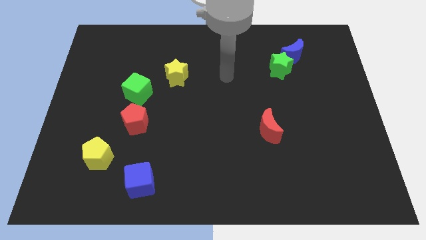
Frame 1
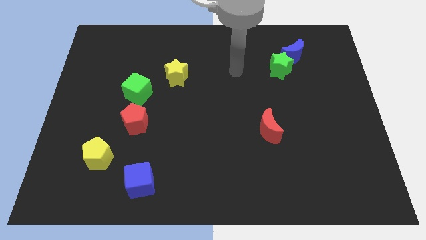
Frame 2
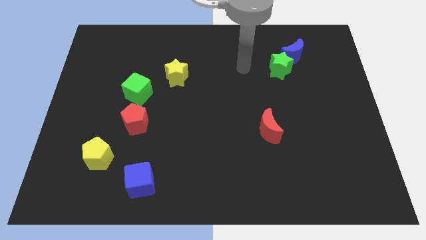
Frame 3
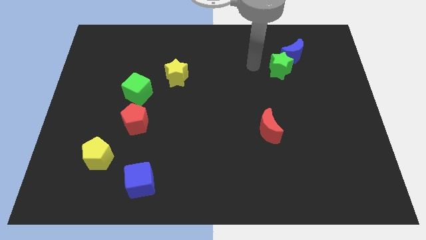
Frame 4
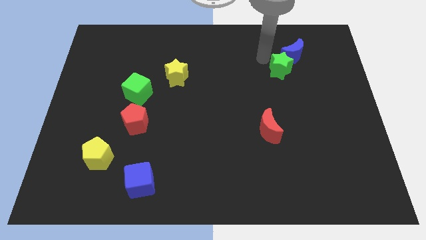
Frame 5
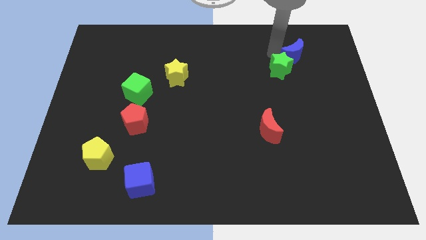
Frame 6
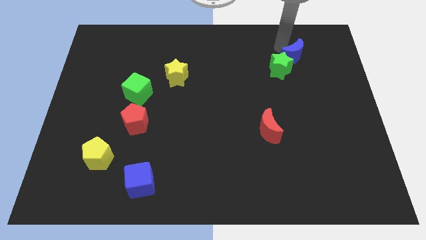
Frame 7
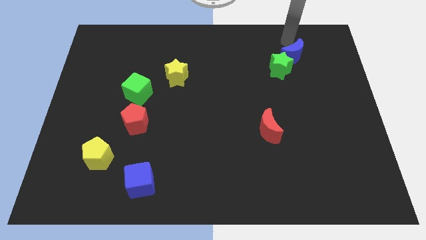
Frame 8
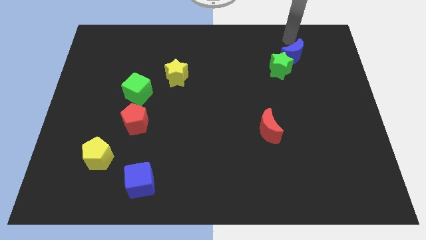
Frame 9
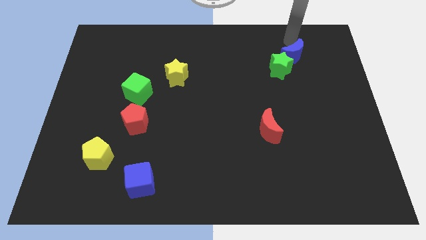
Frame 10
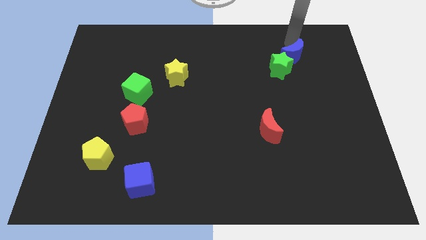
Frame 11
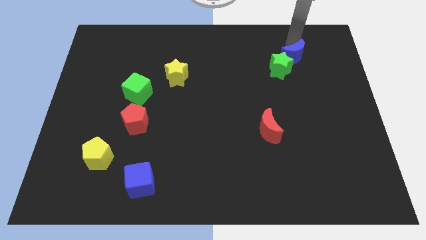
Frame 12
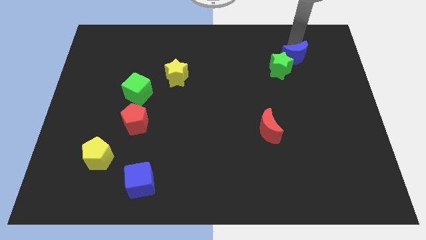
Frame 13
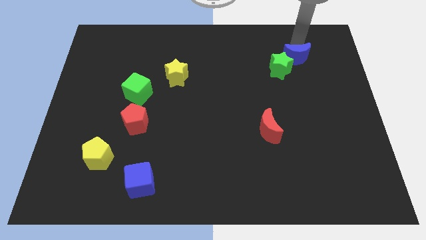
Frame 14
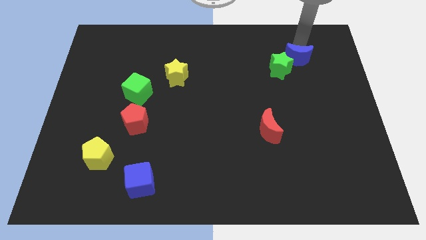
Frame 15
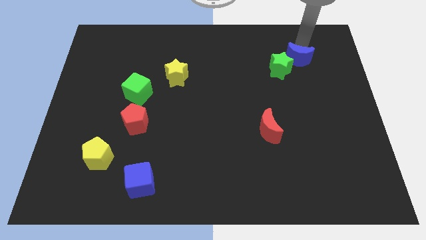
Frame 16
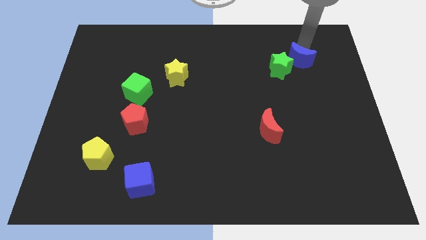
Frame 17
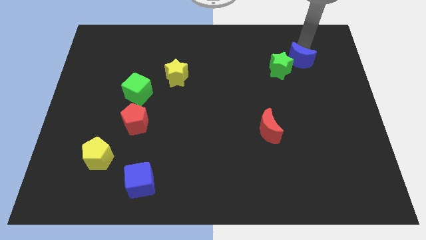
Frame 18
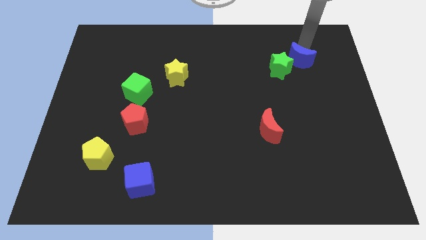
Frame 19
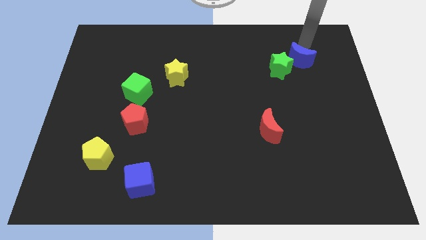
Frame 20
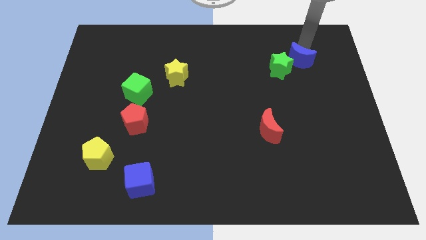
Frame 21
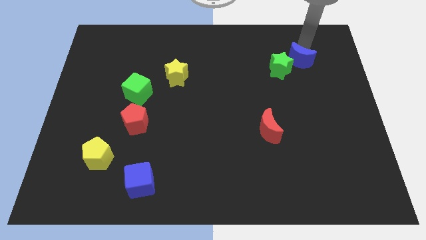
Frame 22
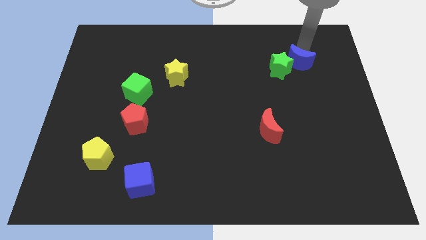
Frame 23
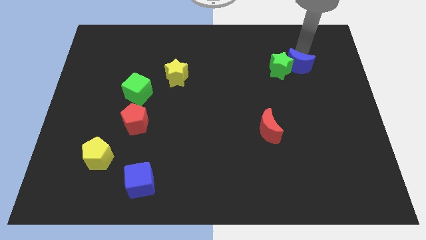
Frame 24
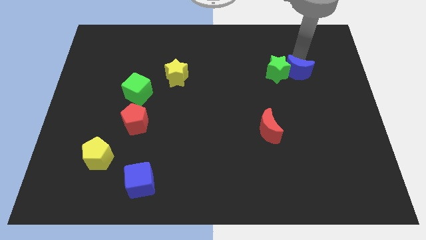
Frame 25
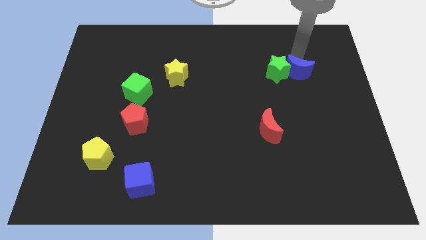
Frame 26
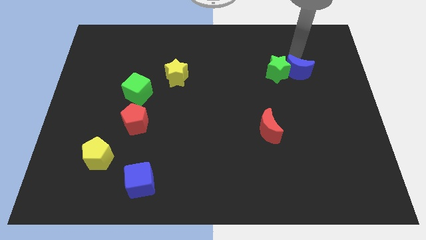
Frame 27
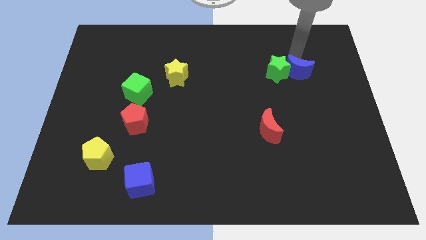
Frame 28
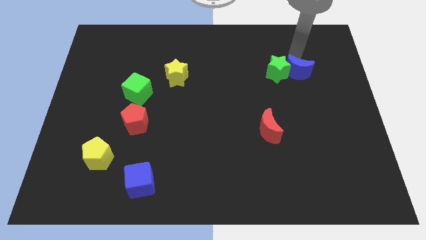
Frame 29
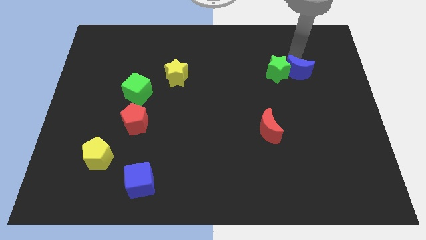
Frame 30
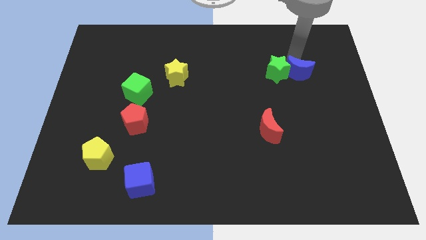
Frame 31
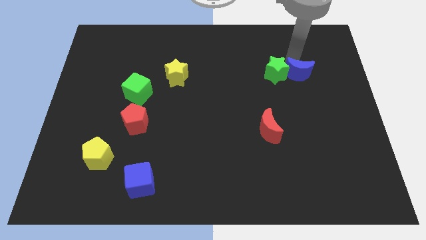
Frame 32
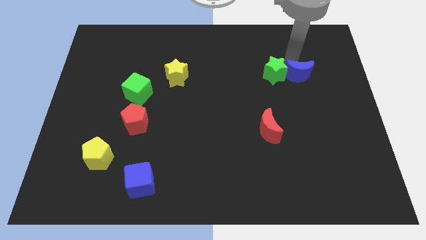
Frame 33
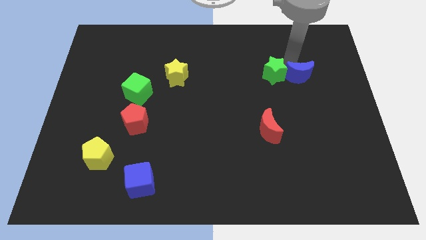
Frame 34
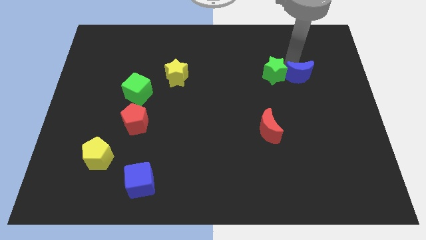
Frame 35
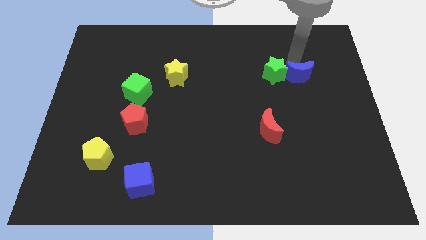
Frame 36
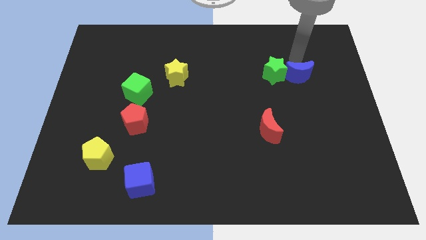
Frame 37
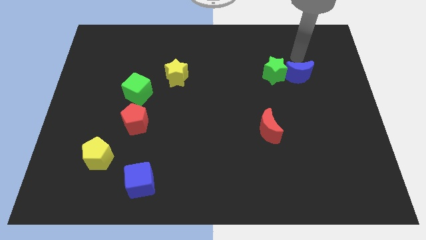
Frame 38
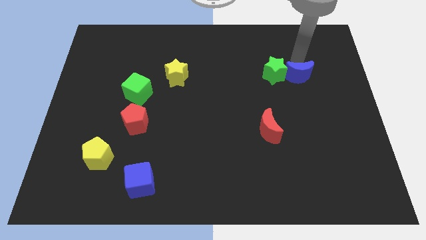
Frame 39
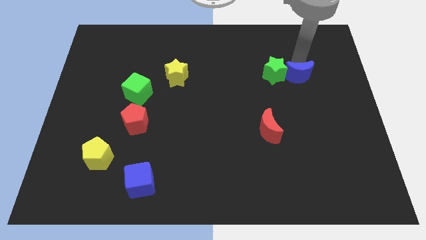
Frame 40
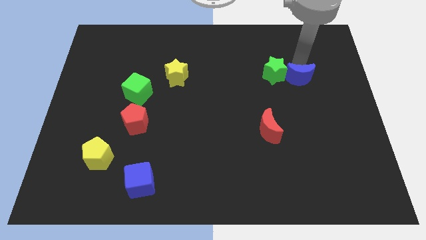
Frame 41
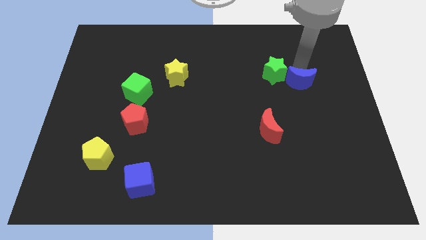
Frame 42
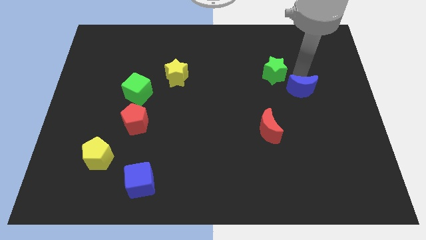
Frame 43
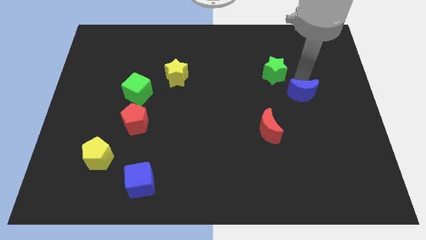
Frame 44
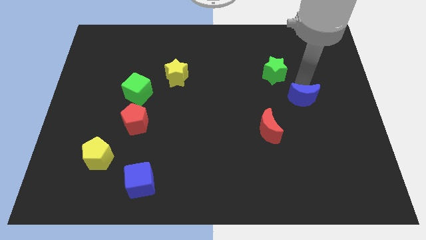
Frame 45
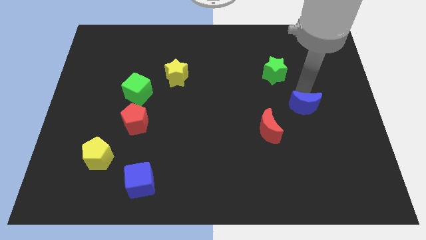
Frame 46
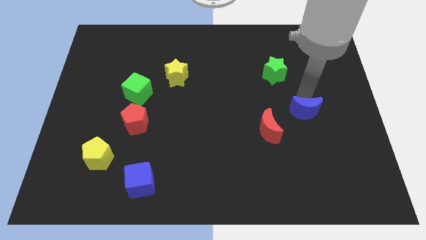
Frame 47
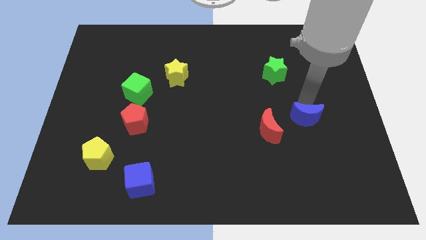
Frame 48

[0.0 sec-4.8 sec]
move the blue moon down

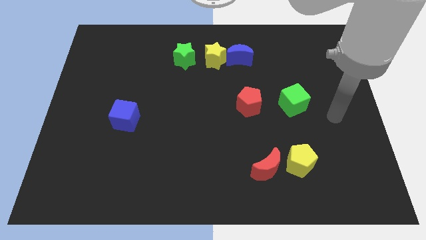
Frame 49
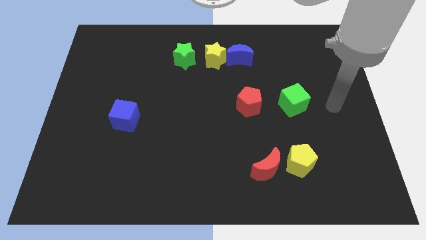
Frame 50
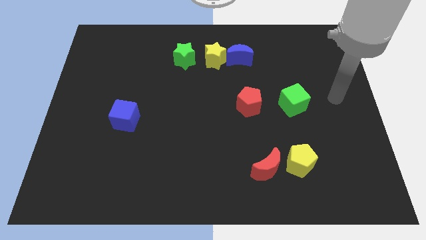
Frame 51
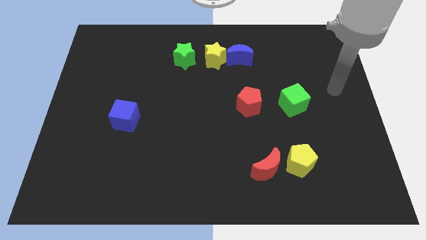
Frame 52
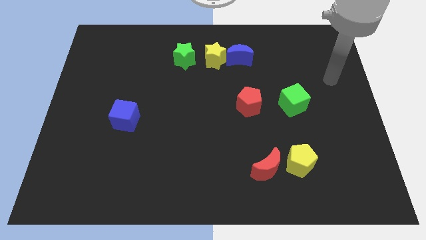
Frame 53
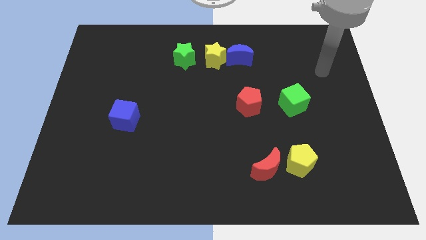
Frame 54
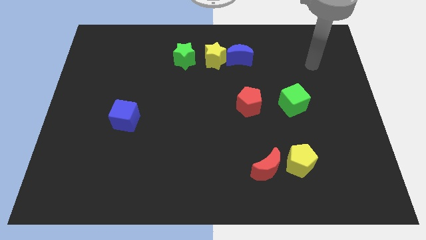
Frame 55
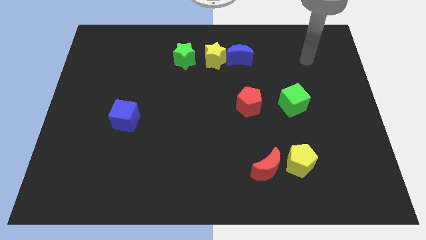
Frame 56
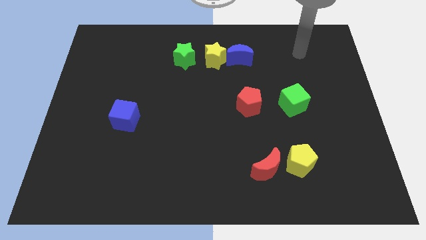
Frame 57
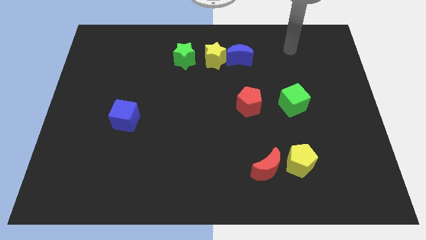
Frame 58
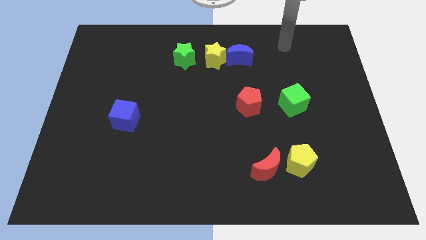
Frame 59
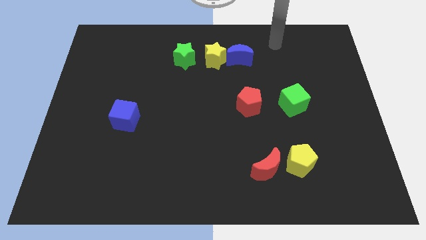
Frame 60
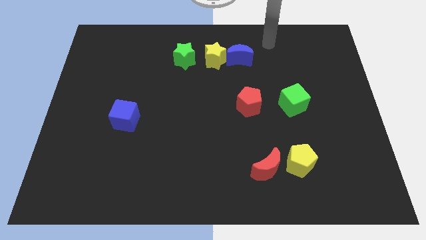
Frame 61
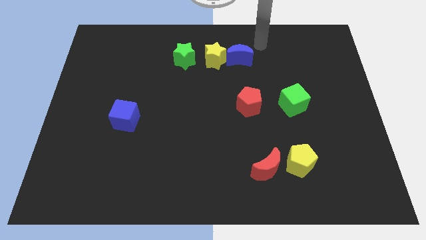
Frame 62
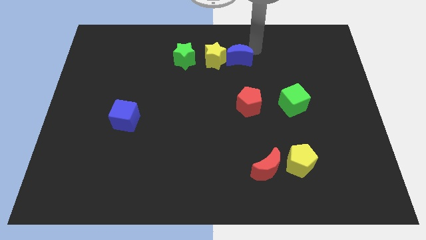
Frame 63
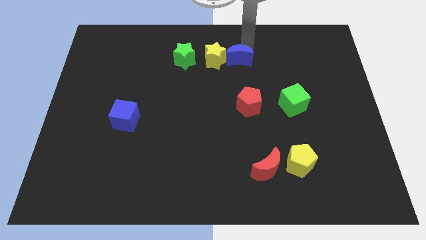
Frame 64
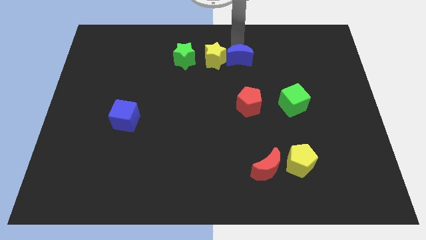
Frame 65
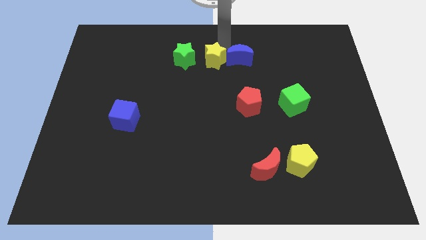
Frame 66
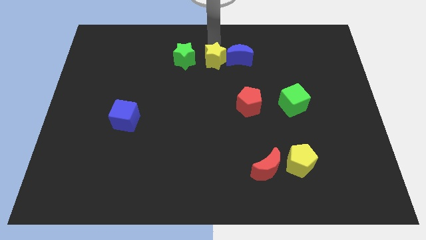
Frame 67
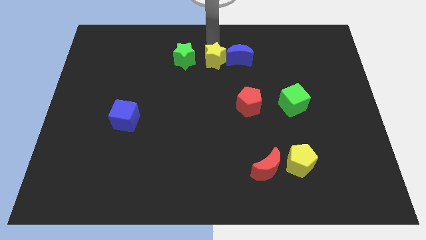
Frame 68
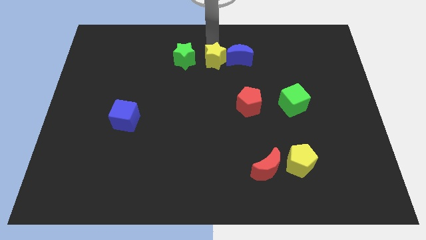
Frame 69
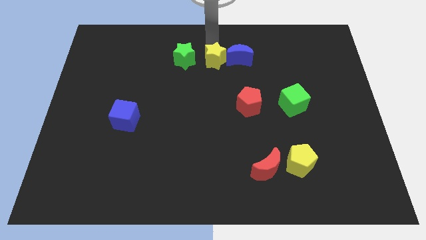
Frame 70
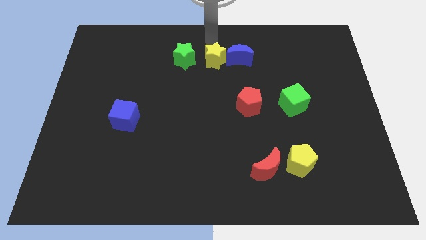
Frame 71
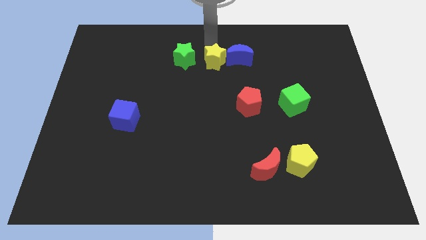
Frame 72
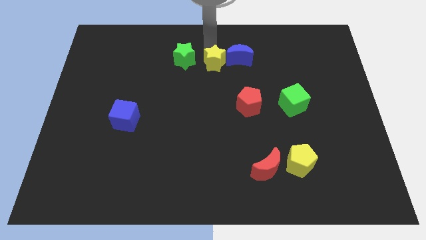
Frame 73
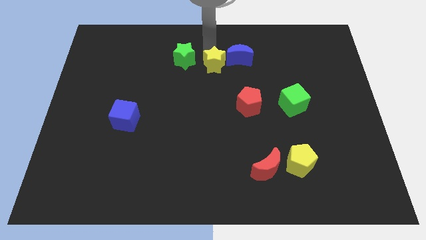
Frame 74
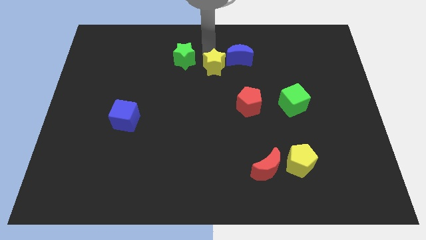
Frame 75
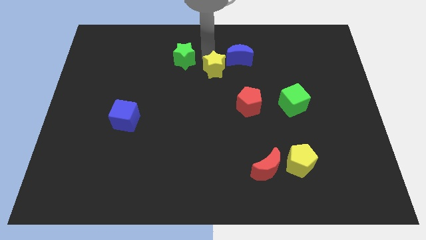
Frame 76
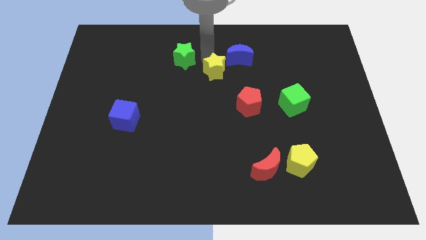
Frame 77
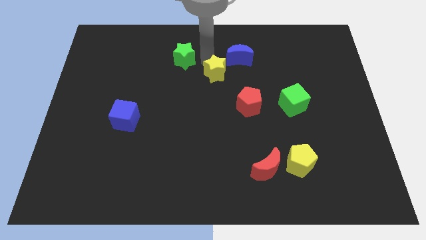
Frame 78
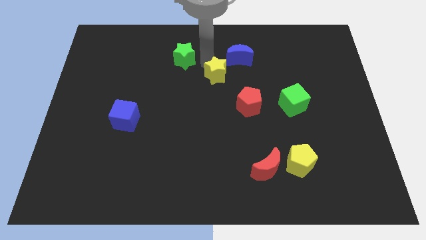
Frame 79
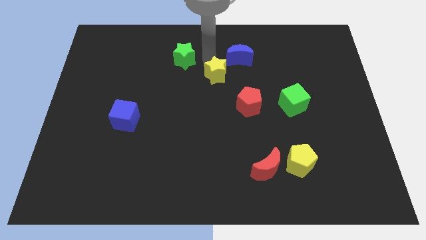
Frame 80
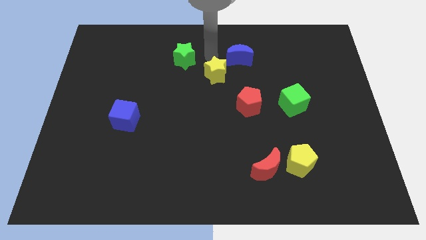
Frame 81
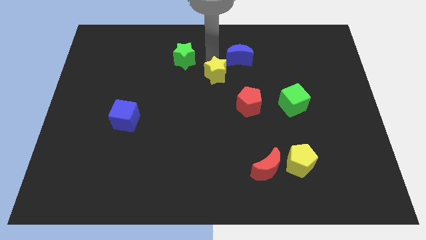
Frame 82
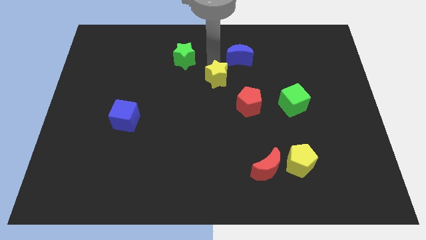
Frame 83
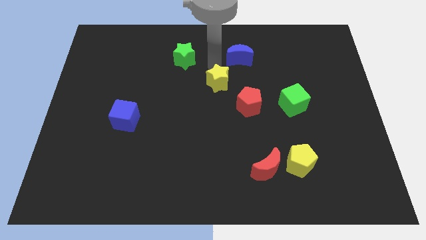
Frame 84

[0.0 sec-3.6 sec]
slightly move the yellow star downwards

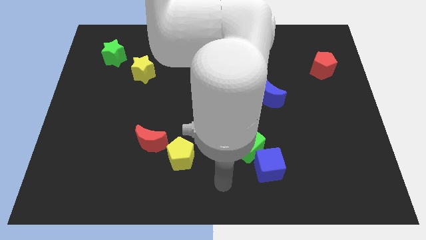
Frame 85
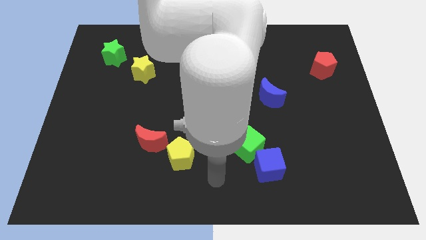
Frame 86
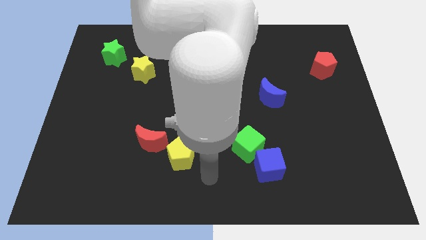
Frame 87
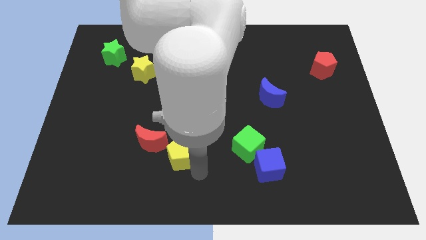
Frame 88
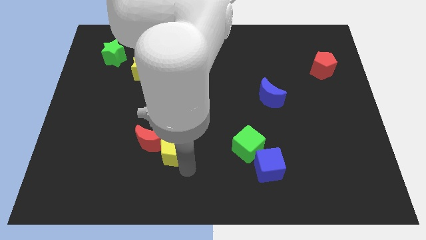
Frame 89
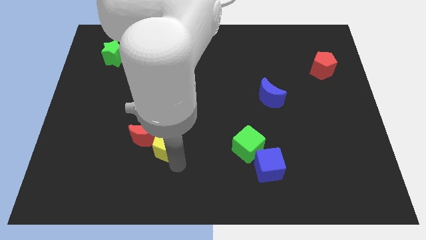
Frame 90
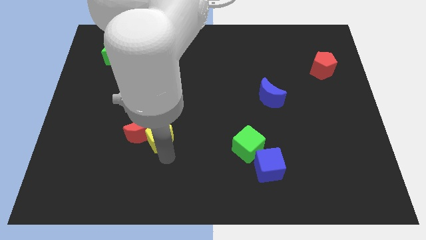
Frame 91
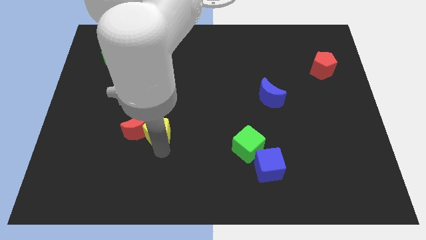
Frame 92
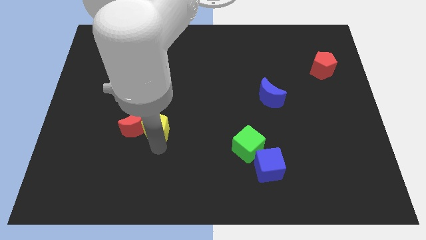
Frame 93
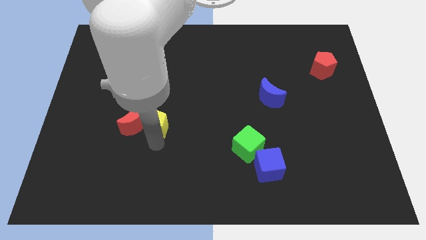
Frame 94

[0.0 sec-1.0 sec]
slightly slide the red moon upwards and left diagonally
